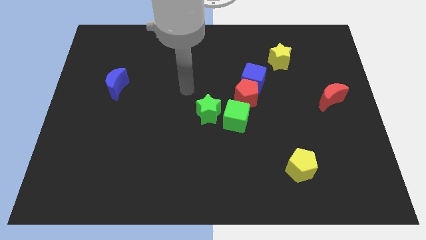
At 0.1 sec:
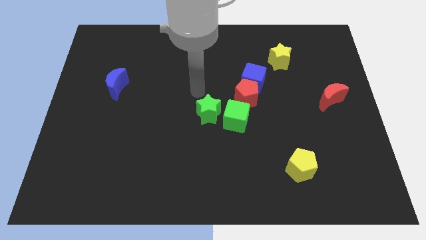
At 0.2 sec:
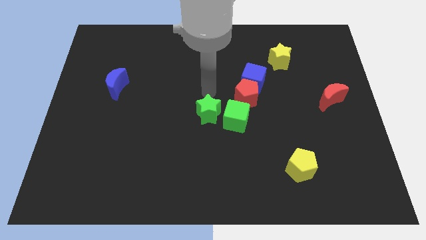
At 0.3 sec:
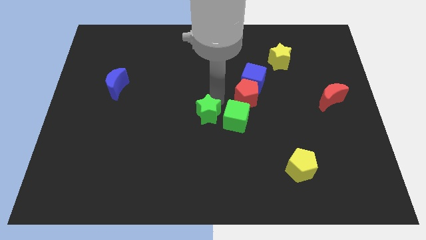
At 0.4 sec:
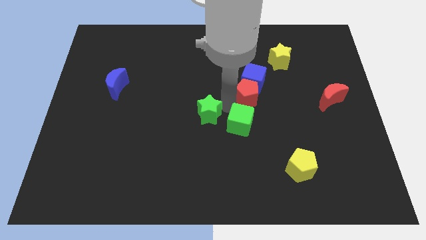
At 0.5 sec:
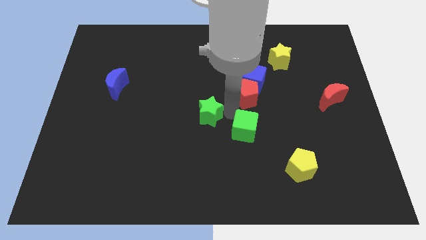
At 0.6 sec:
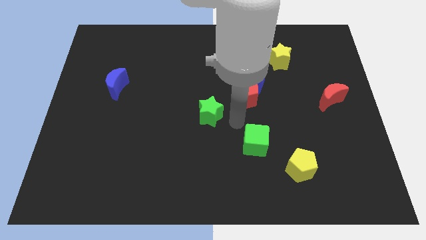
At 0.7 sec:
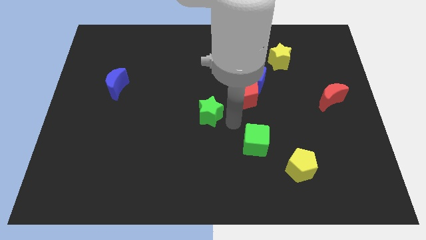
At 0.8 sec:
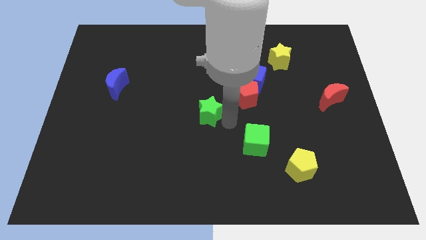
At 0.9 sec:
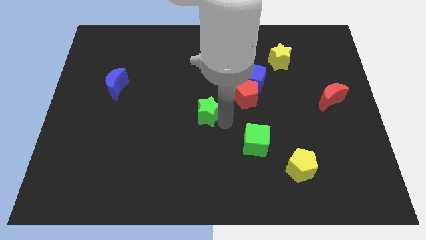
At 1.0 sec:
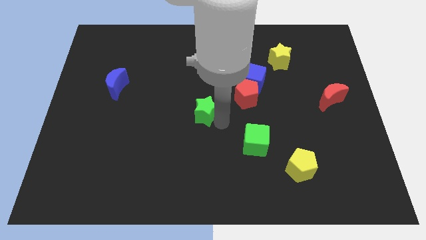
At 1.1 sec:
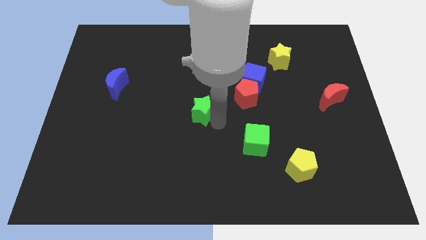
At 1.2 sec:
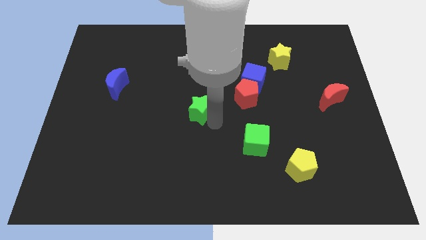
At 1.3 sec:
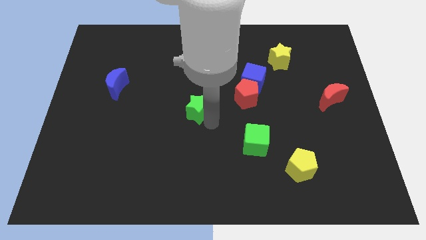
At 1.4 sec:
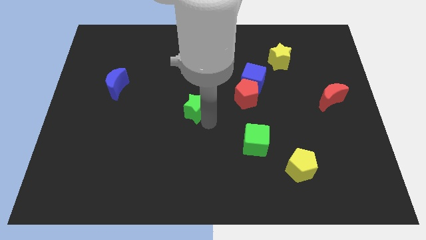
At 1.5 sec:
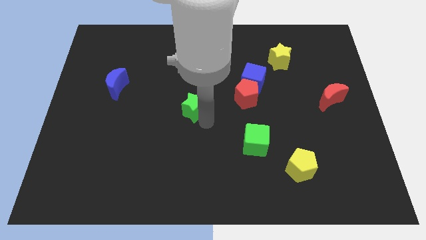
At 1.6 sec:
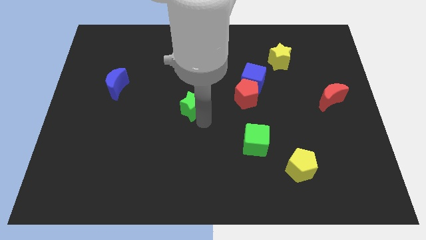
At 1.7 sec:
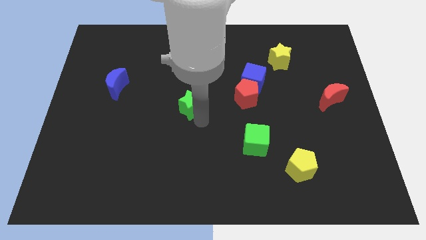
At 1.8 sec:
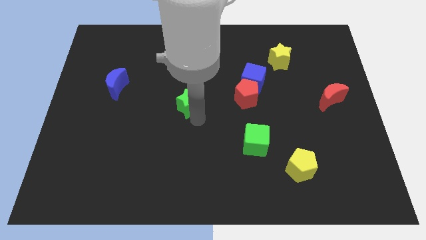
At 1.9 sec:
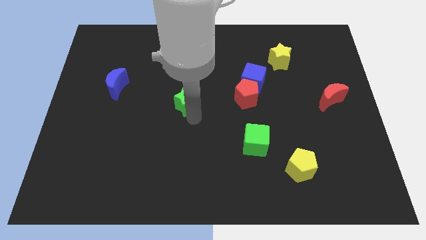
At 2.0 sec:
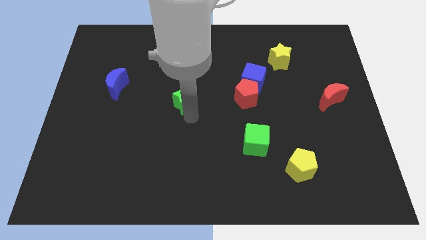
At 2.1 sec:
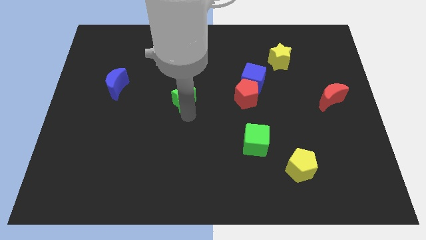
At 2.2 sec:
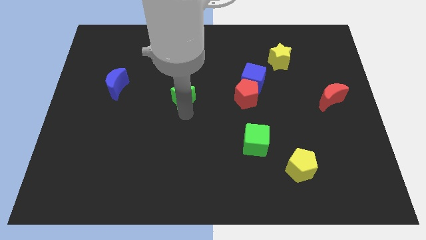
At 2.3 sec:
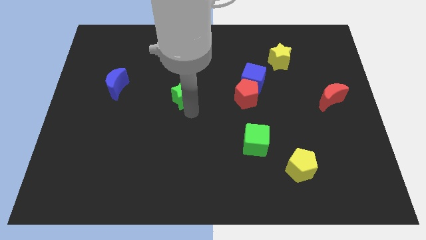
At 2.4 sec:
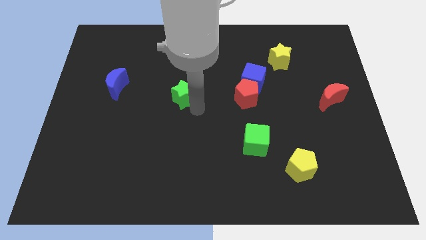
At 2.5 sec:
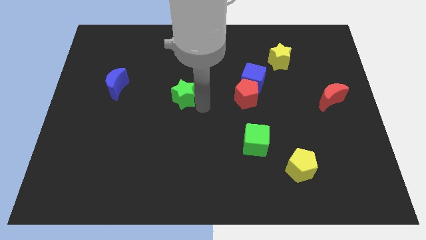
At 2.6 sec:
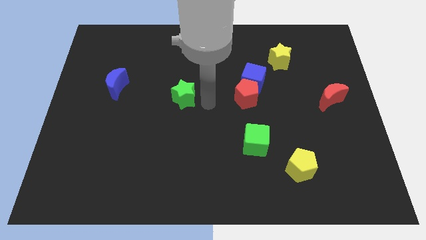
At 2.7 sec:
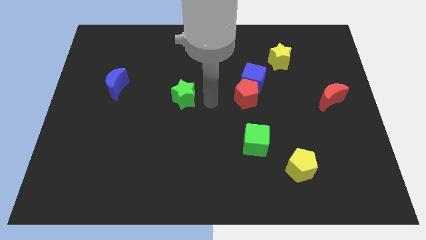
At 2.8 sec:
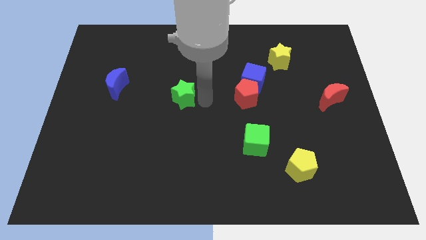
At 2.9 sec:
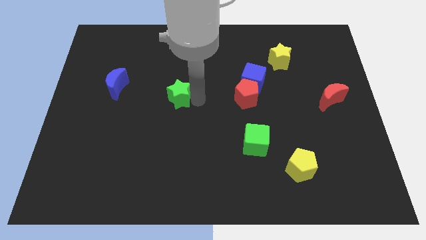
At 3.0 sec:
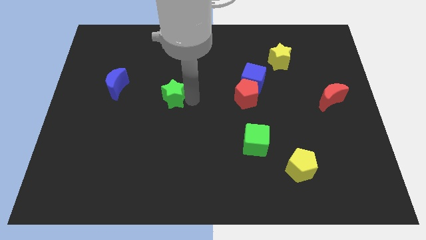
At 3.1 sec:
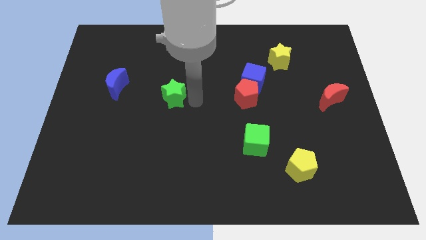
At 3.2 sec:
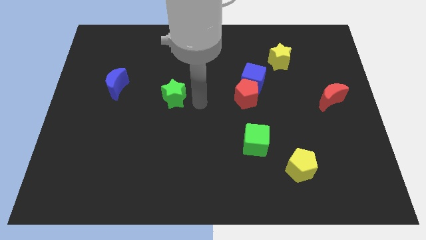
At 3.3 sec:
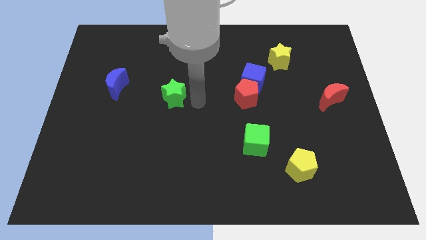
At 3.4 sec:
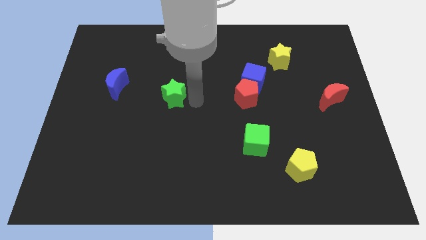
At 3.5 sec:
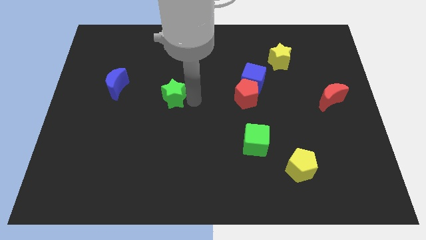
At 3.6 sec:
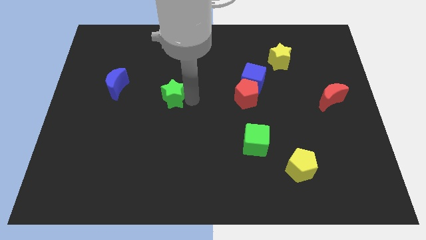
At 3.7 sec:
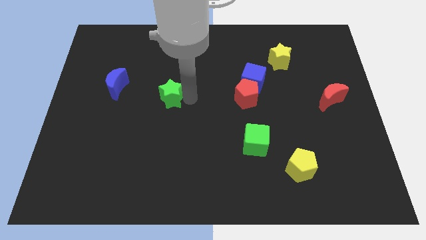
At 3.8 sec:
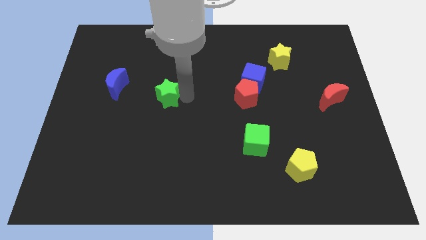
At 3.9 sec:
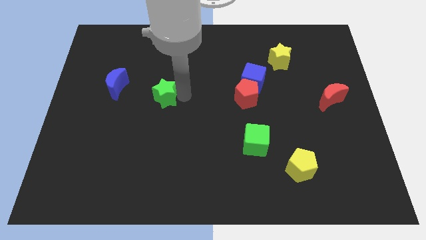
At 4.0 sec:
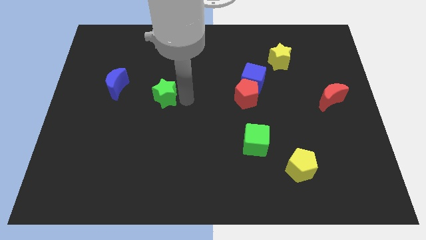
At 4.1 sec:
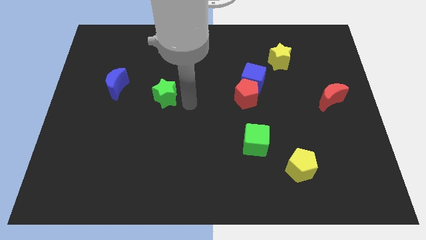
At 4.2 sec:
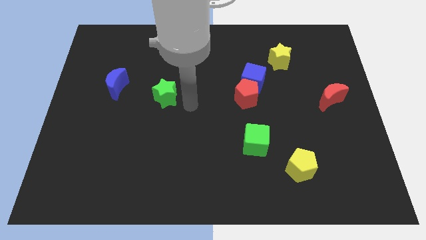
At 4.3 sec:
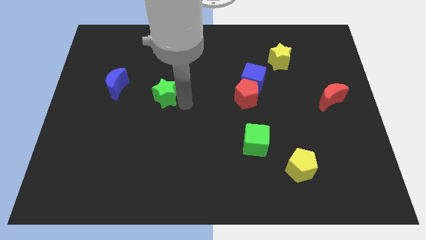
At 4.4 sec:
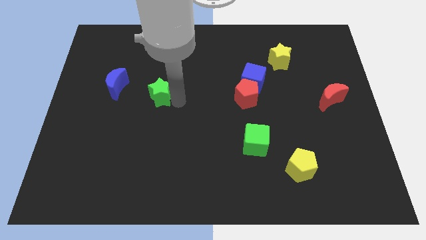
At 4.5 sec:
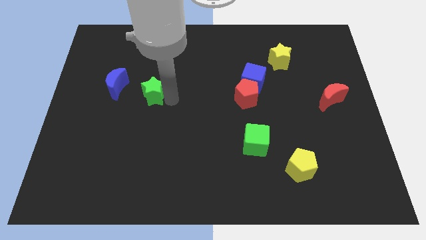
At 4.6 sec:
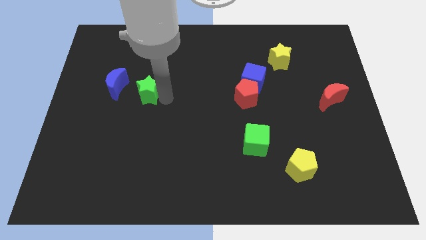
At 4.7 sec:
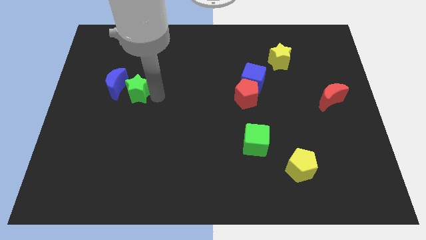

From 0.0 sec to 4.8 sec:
move the green star towards the blue moon

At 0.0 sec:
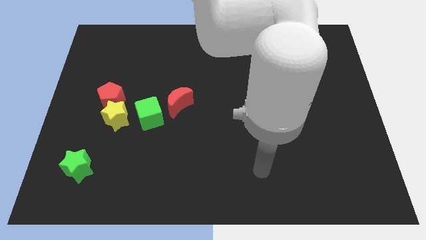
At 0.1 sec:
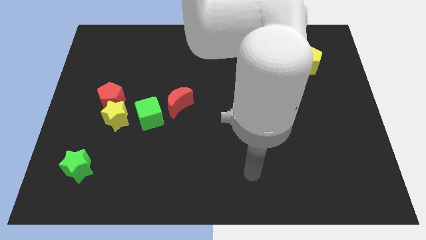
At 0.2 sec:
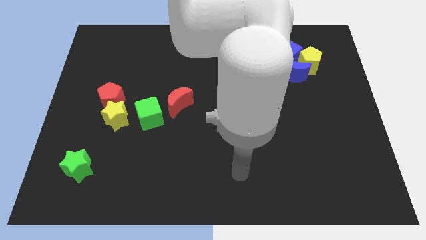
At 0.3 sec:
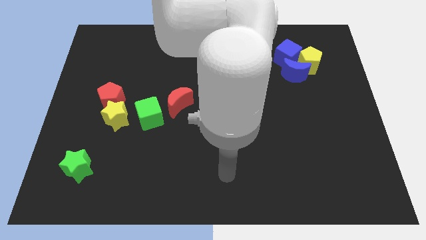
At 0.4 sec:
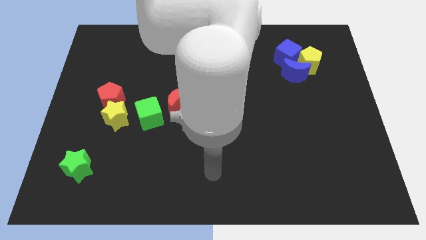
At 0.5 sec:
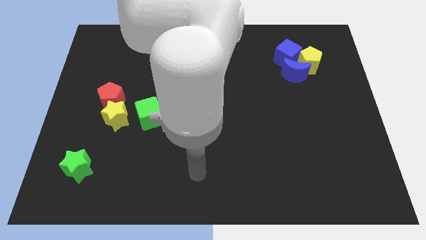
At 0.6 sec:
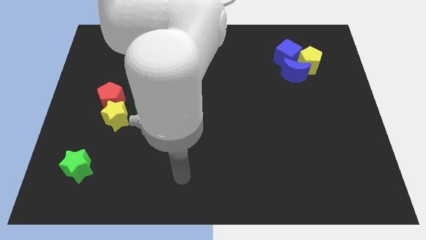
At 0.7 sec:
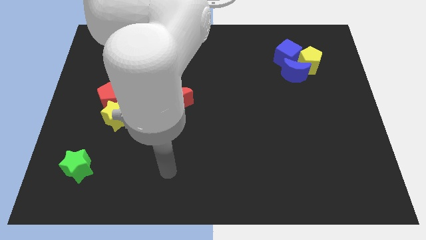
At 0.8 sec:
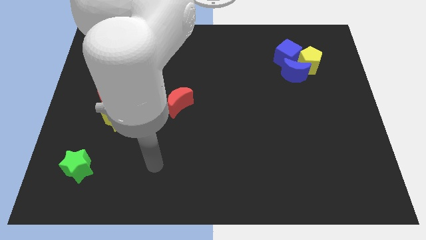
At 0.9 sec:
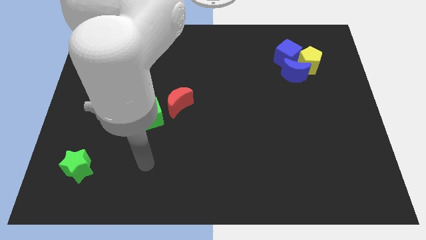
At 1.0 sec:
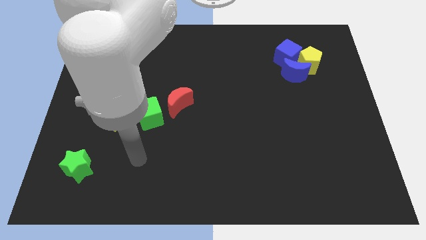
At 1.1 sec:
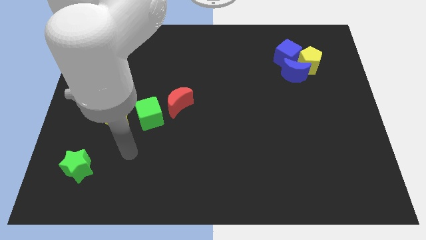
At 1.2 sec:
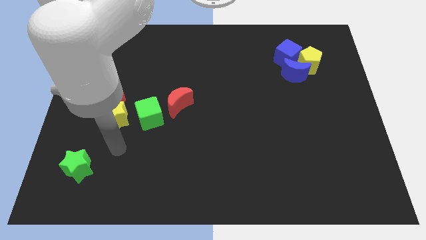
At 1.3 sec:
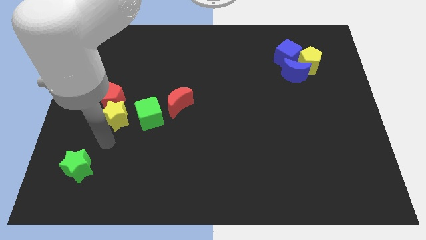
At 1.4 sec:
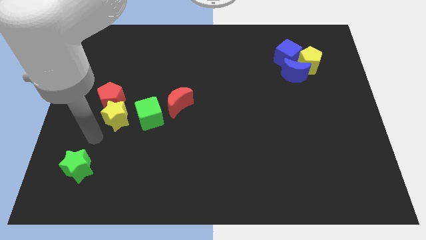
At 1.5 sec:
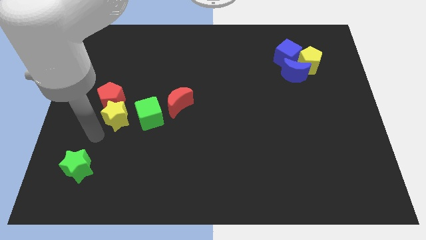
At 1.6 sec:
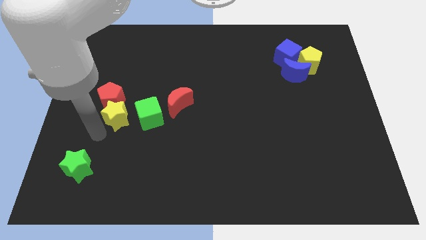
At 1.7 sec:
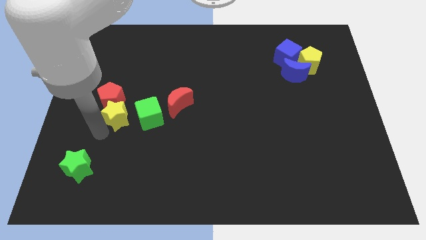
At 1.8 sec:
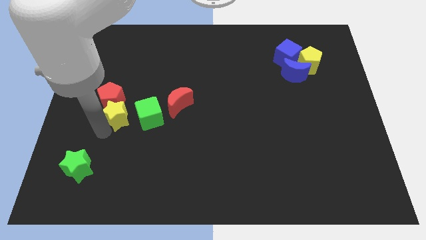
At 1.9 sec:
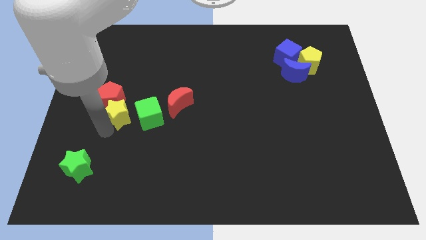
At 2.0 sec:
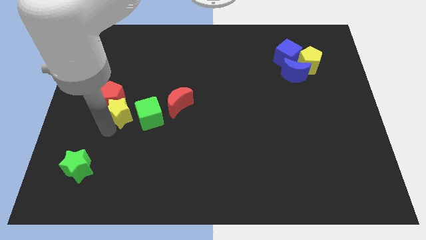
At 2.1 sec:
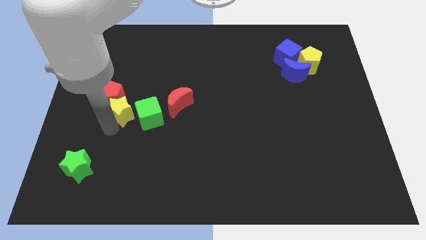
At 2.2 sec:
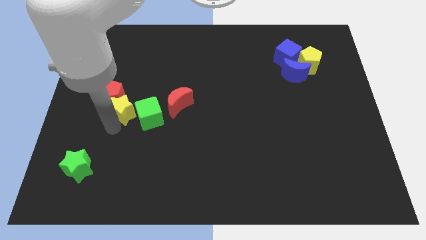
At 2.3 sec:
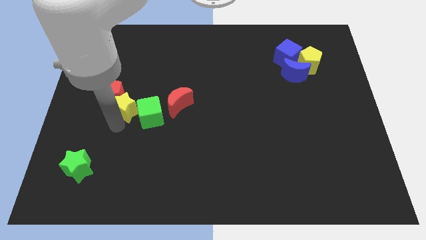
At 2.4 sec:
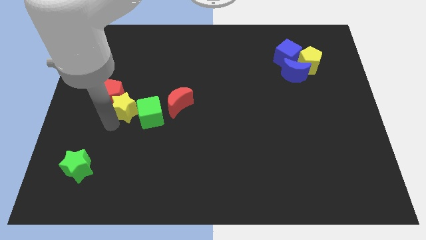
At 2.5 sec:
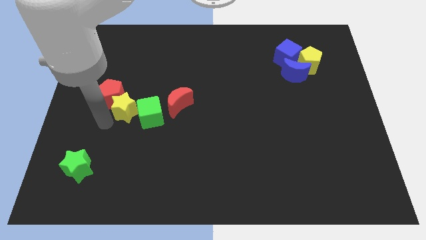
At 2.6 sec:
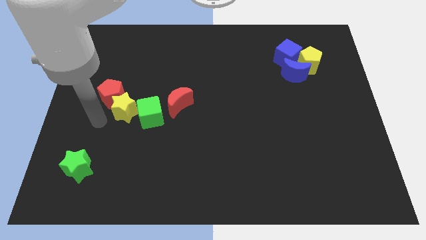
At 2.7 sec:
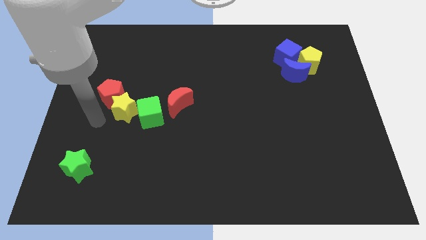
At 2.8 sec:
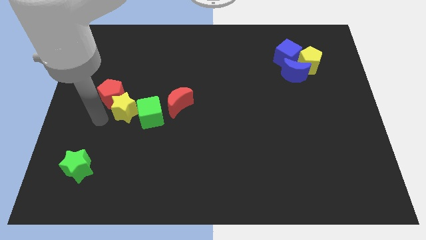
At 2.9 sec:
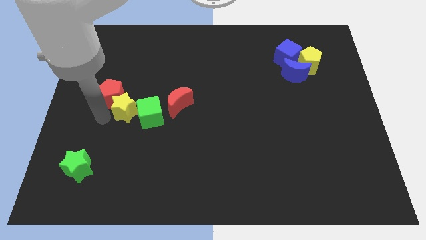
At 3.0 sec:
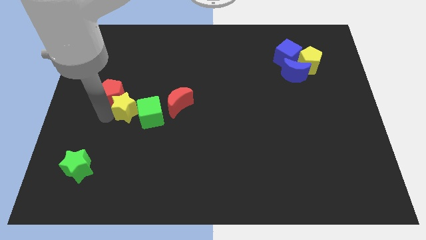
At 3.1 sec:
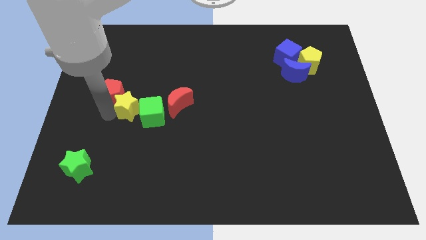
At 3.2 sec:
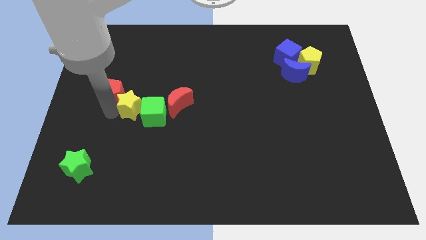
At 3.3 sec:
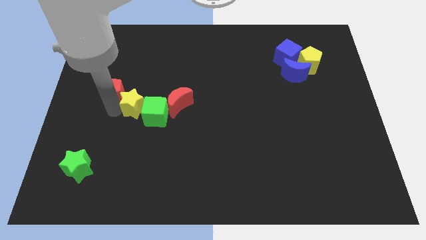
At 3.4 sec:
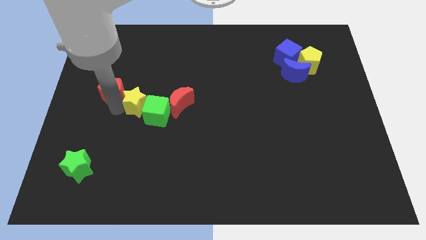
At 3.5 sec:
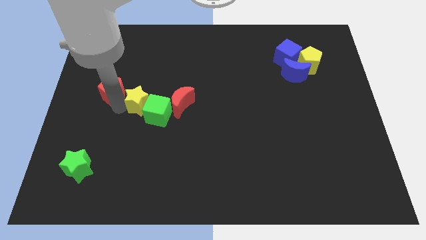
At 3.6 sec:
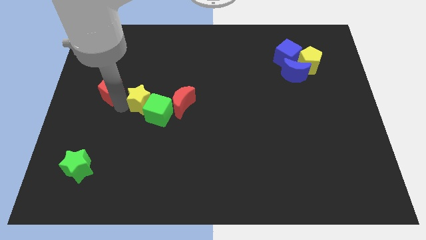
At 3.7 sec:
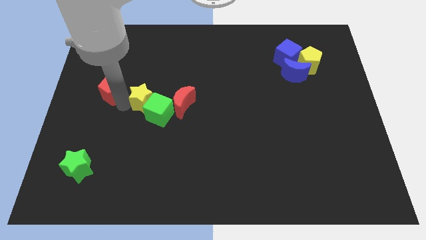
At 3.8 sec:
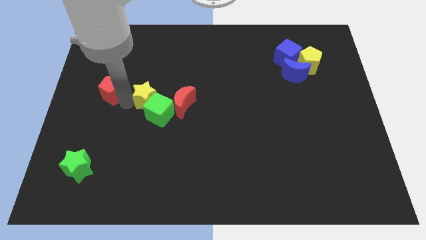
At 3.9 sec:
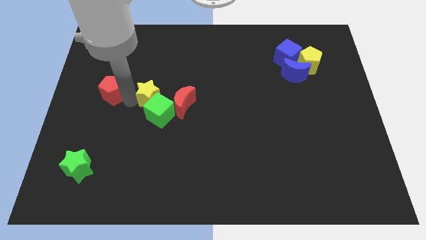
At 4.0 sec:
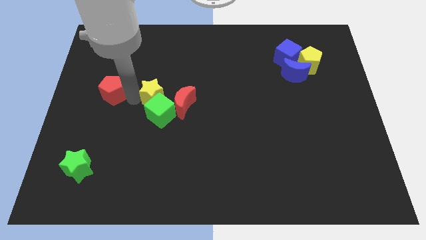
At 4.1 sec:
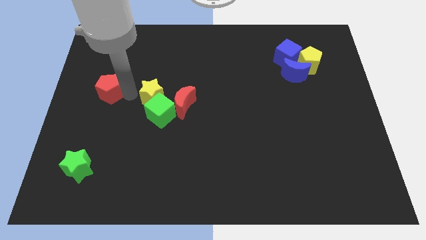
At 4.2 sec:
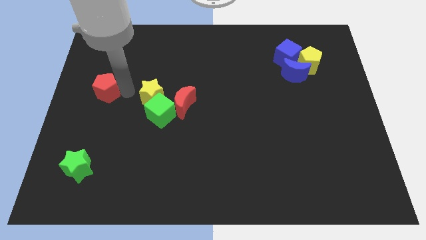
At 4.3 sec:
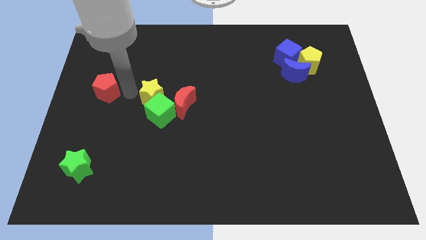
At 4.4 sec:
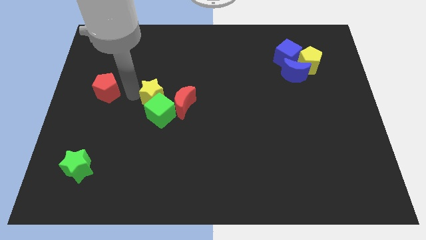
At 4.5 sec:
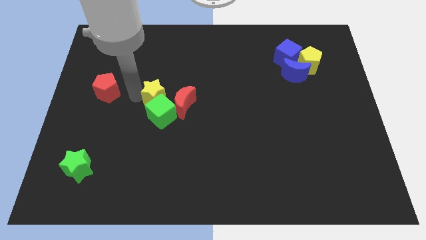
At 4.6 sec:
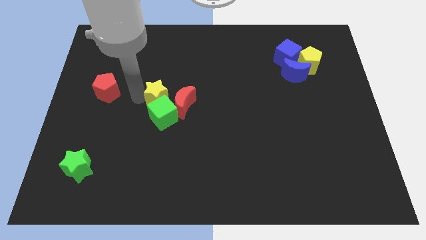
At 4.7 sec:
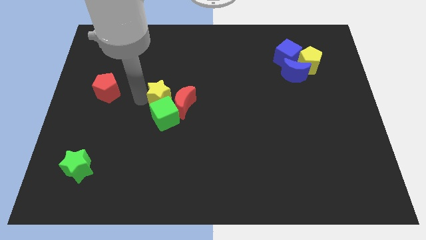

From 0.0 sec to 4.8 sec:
put the yellow star close to the red moon
